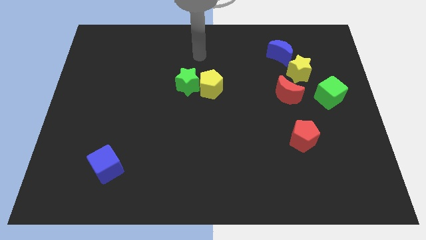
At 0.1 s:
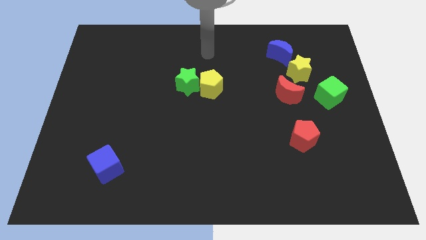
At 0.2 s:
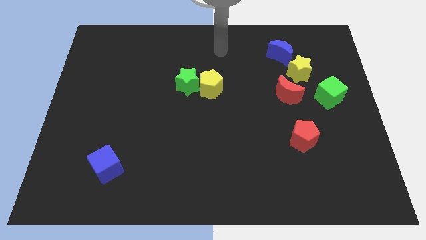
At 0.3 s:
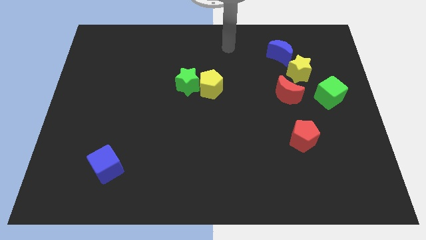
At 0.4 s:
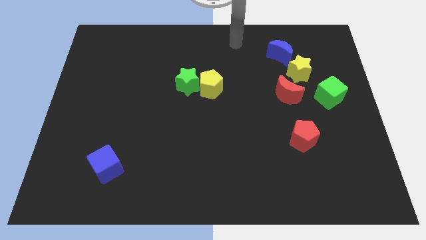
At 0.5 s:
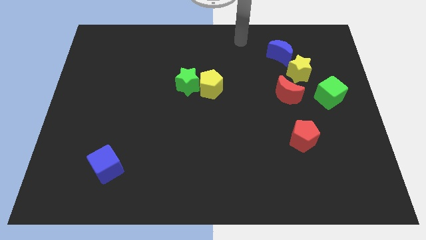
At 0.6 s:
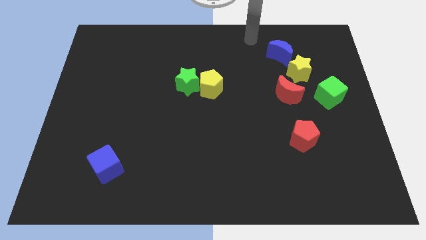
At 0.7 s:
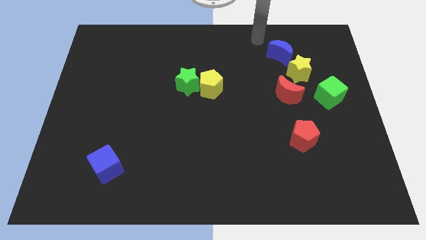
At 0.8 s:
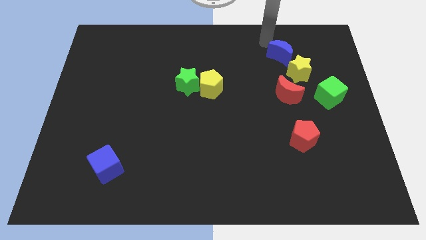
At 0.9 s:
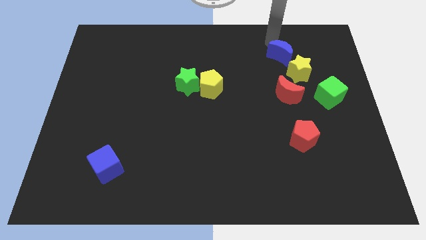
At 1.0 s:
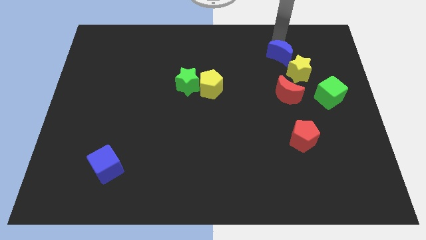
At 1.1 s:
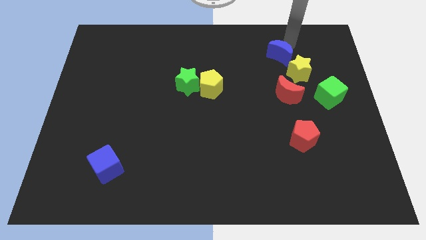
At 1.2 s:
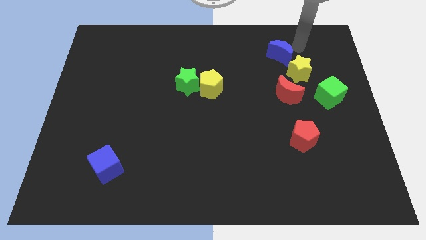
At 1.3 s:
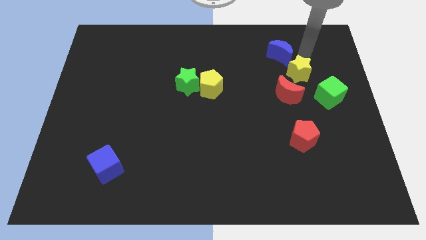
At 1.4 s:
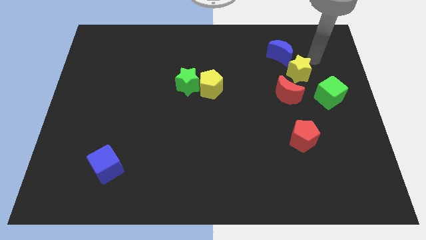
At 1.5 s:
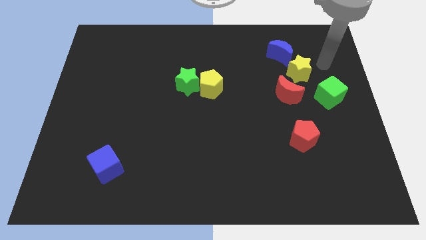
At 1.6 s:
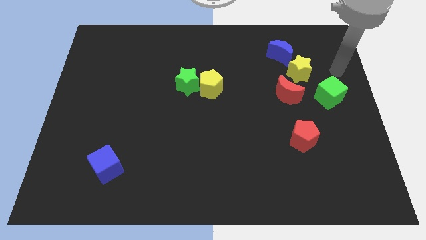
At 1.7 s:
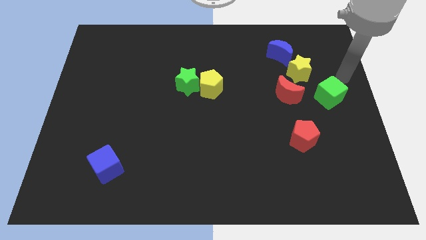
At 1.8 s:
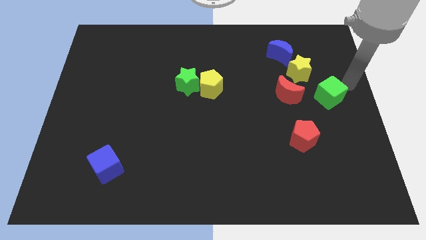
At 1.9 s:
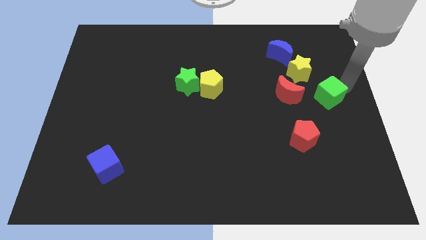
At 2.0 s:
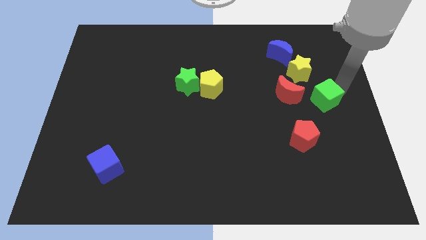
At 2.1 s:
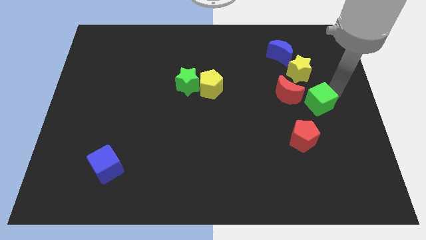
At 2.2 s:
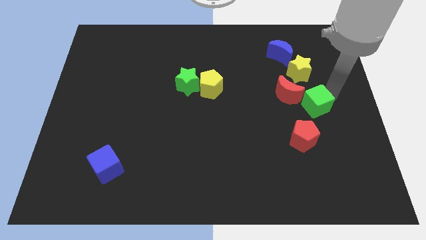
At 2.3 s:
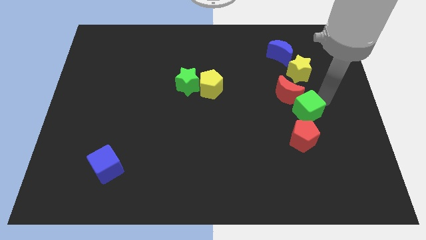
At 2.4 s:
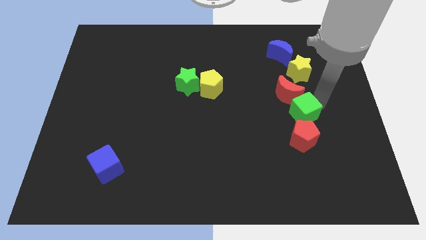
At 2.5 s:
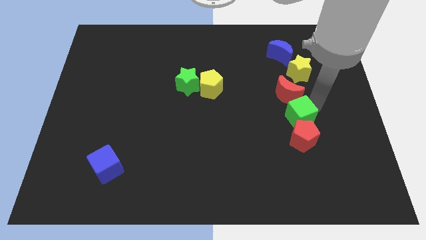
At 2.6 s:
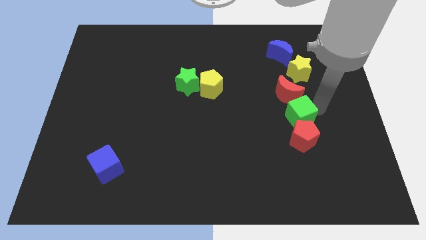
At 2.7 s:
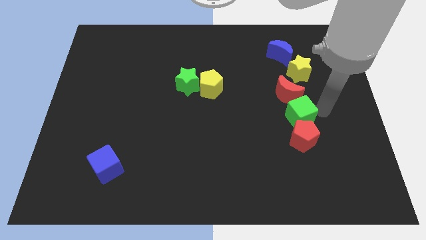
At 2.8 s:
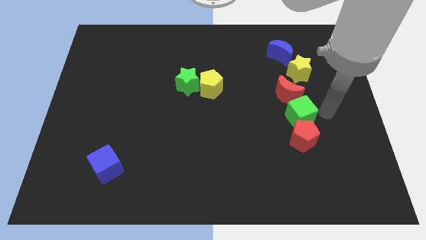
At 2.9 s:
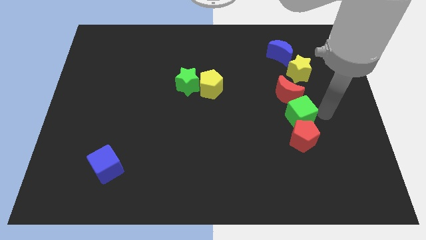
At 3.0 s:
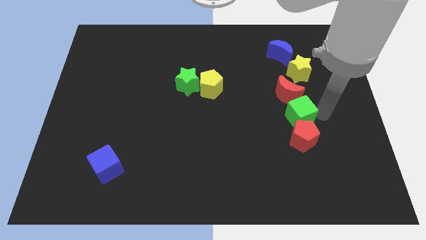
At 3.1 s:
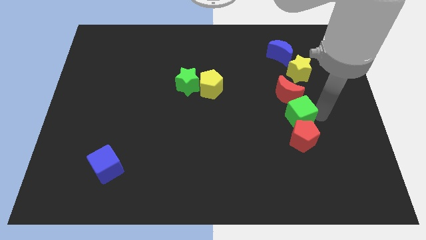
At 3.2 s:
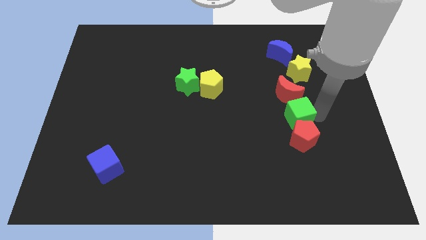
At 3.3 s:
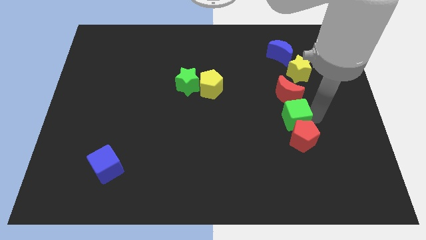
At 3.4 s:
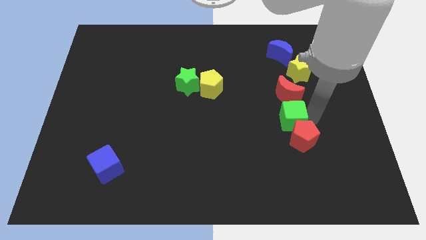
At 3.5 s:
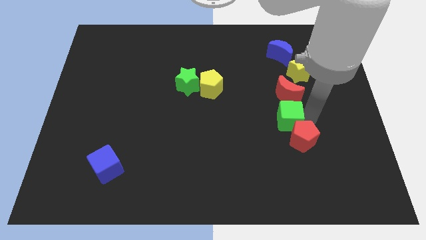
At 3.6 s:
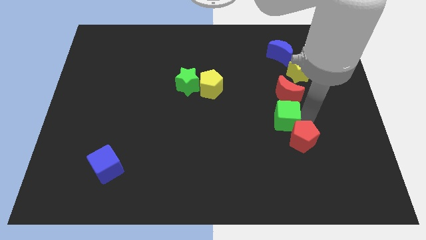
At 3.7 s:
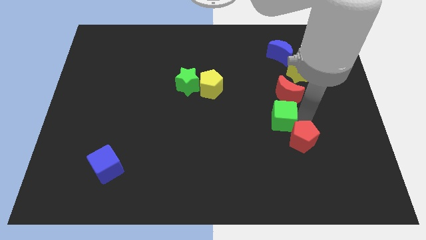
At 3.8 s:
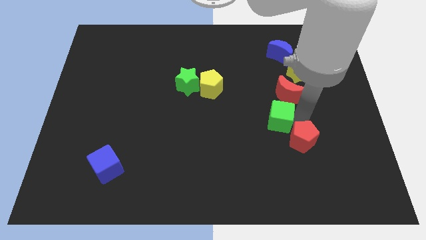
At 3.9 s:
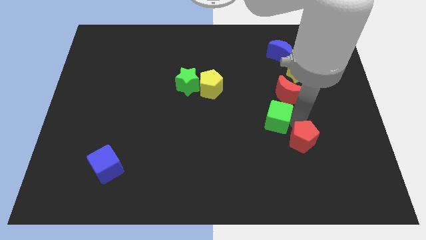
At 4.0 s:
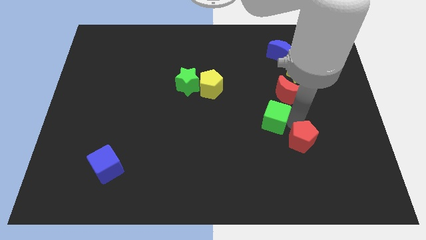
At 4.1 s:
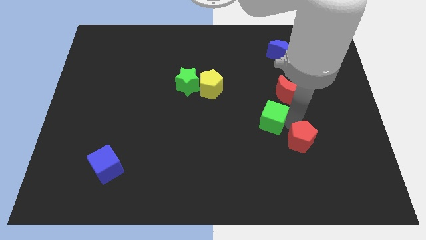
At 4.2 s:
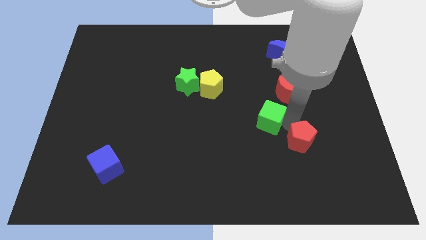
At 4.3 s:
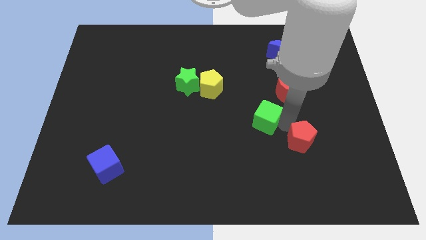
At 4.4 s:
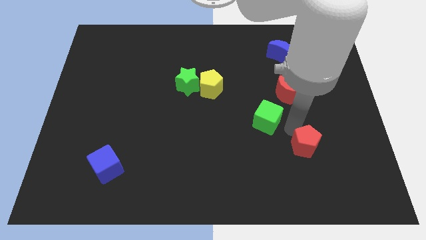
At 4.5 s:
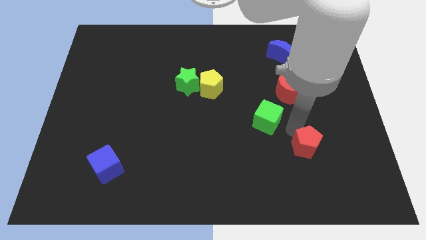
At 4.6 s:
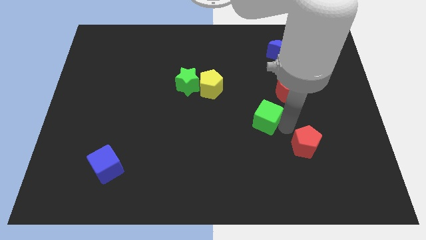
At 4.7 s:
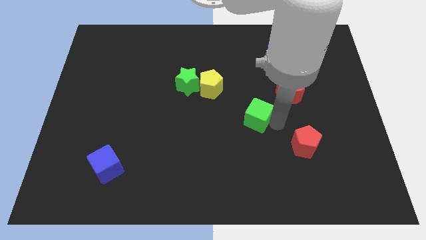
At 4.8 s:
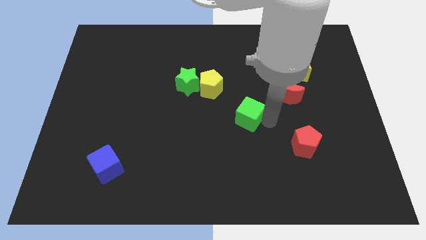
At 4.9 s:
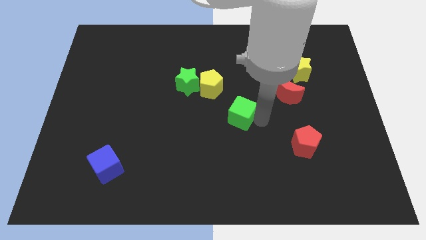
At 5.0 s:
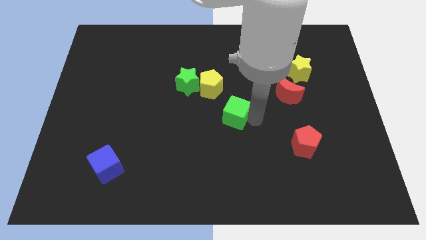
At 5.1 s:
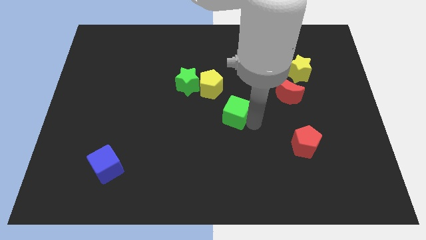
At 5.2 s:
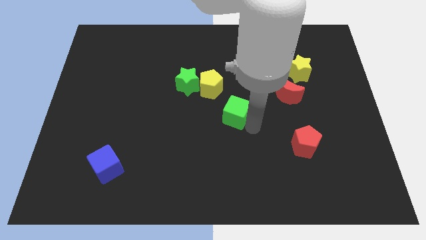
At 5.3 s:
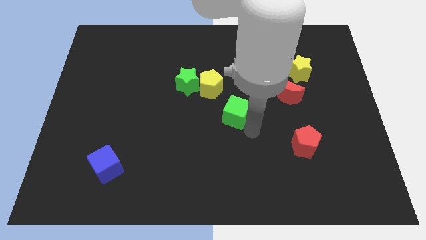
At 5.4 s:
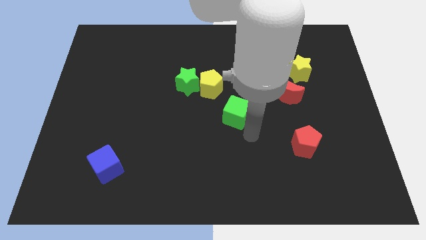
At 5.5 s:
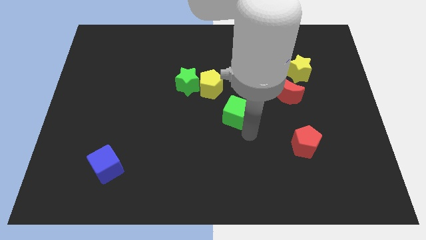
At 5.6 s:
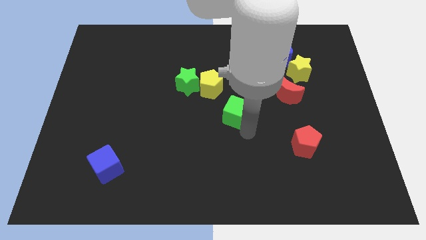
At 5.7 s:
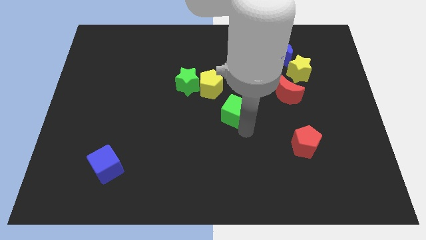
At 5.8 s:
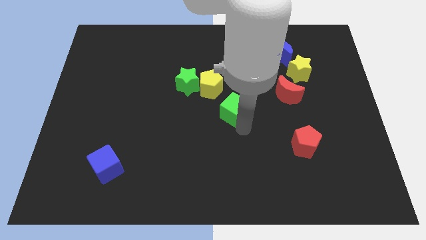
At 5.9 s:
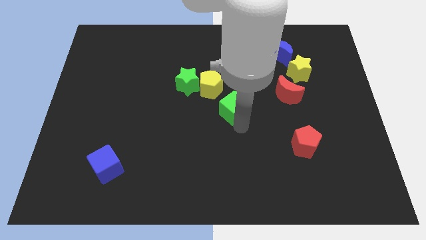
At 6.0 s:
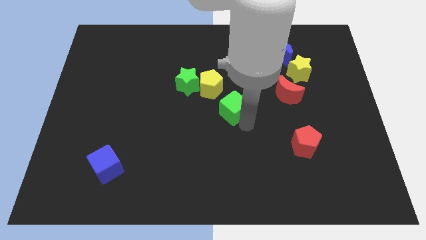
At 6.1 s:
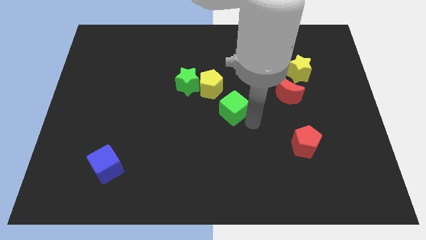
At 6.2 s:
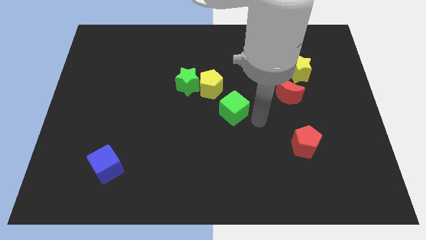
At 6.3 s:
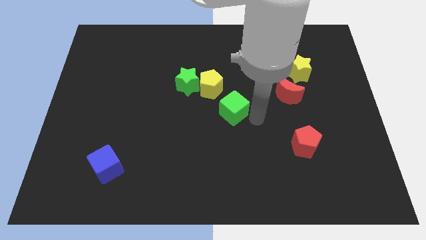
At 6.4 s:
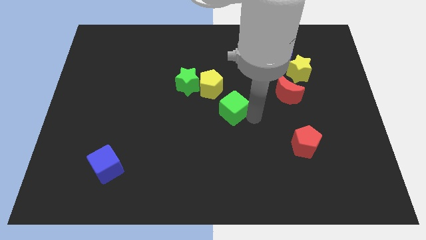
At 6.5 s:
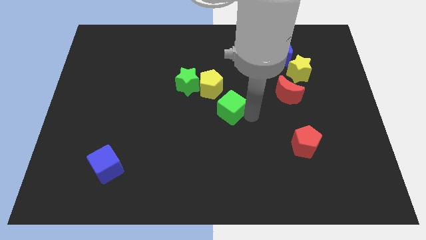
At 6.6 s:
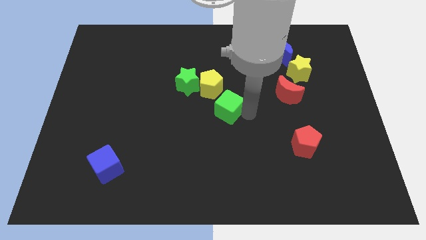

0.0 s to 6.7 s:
move the green cube to the bottom right side of the green star

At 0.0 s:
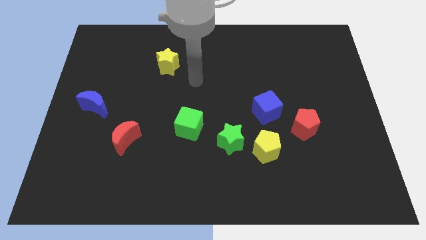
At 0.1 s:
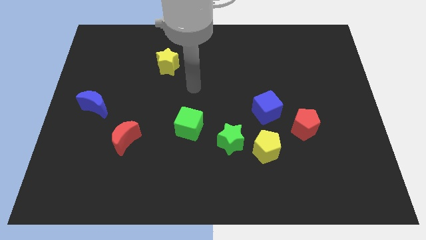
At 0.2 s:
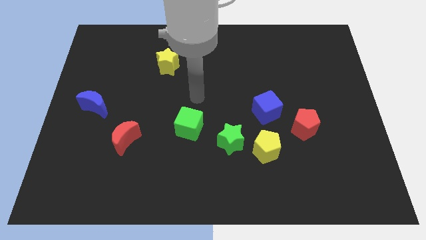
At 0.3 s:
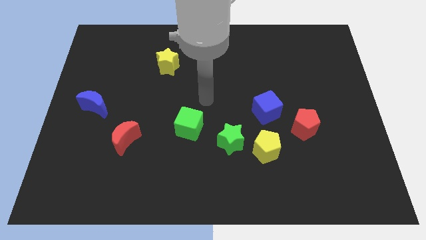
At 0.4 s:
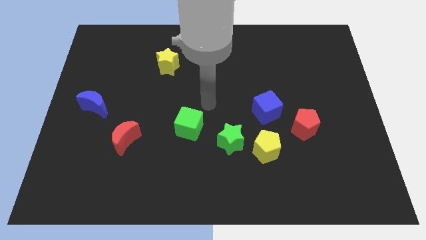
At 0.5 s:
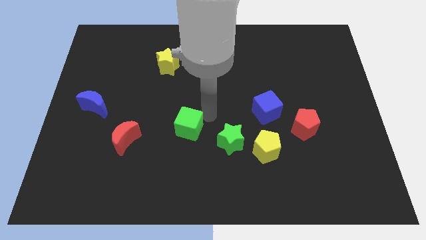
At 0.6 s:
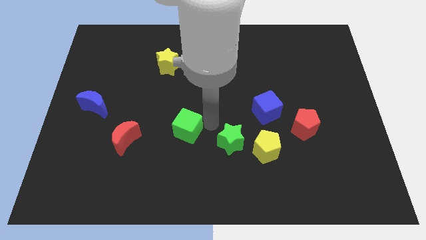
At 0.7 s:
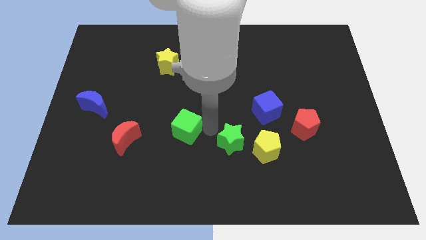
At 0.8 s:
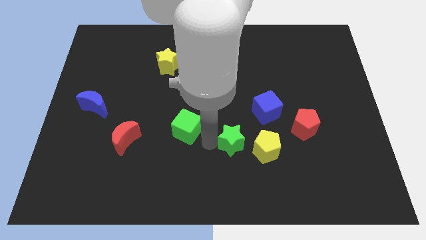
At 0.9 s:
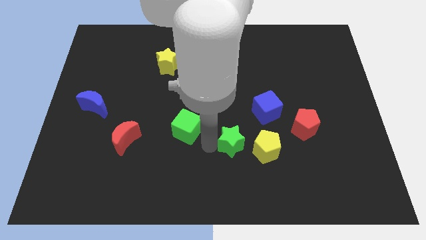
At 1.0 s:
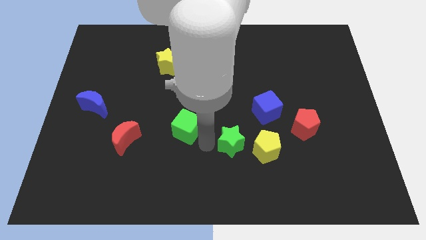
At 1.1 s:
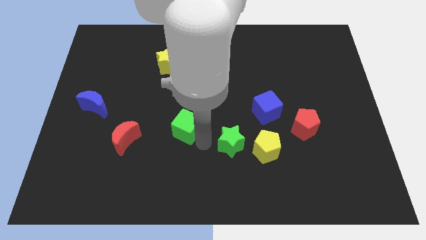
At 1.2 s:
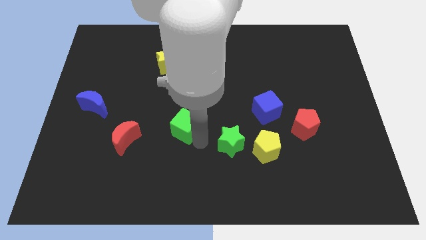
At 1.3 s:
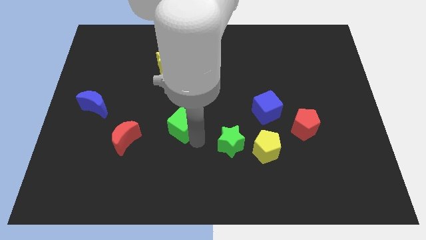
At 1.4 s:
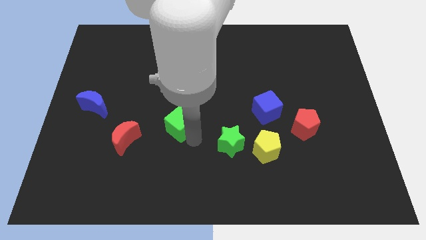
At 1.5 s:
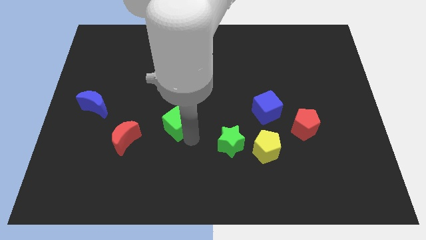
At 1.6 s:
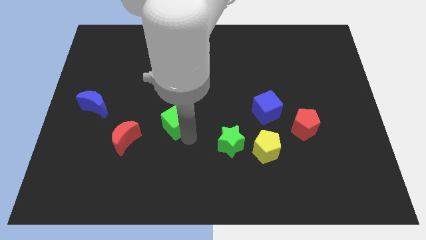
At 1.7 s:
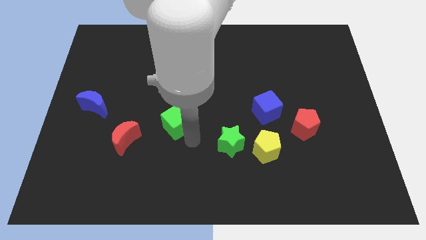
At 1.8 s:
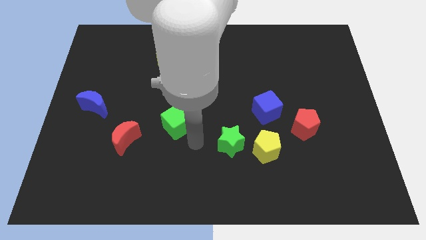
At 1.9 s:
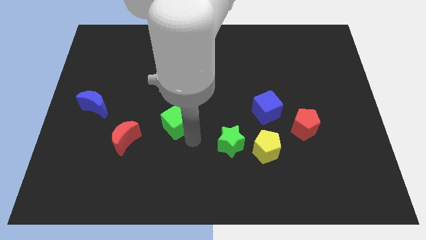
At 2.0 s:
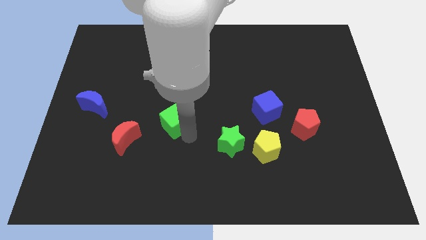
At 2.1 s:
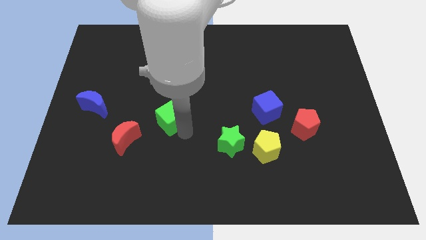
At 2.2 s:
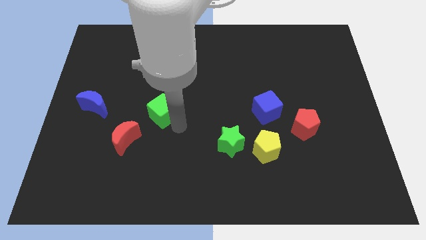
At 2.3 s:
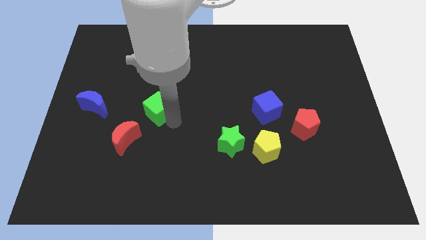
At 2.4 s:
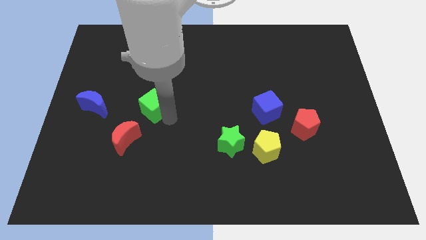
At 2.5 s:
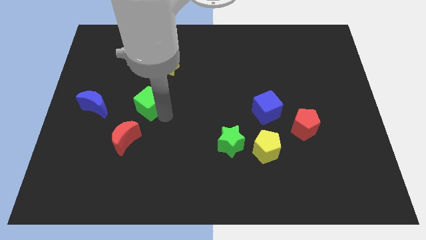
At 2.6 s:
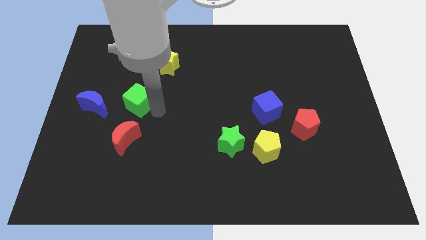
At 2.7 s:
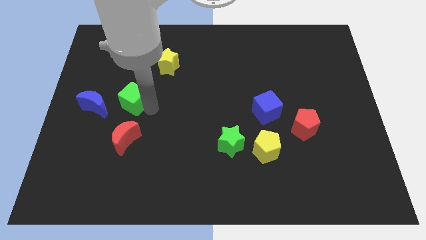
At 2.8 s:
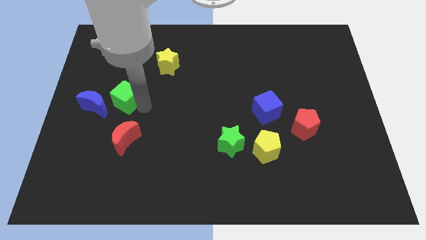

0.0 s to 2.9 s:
push the green cube diagonally up and to the right of the blue moon
